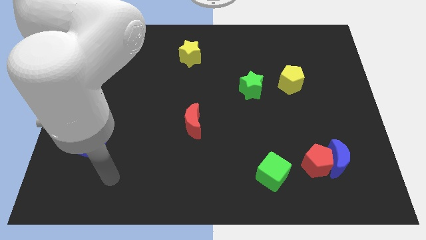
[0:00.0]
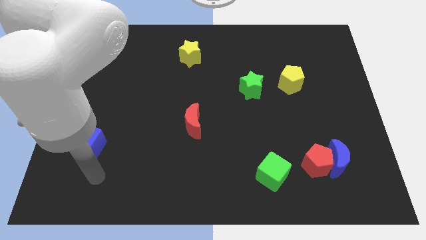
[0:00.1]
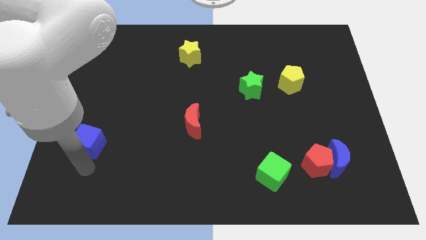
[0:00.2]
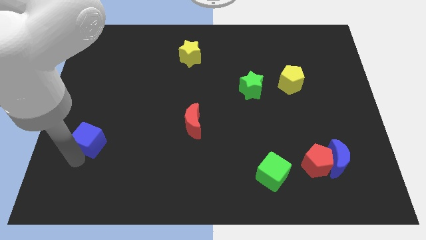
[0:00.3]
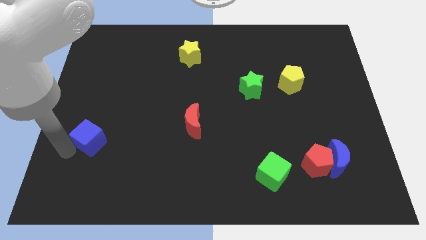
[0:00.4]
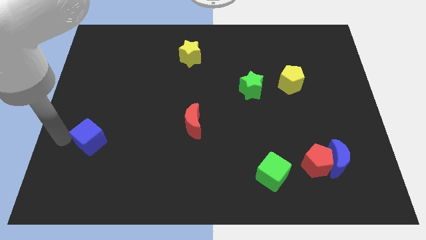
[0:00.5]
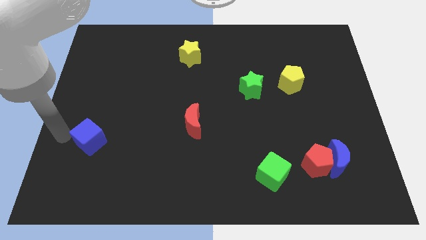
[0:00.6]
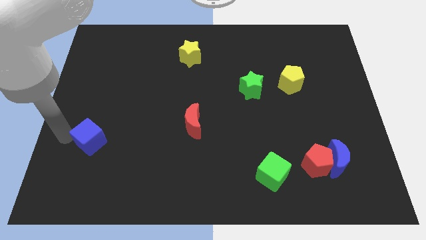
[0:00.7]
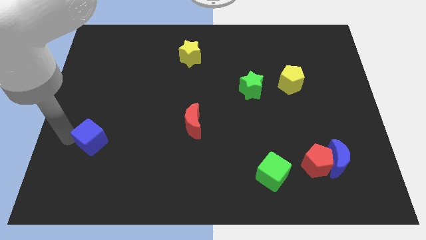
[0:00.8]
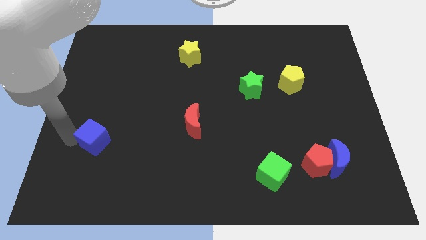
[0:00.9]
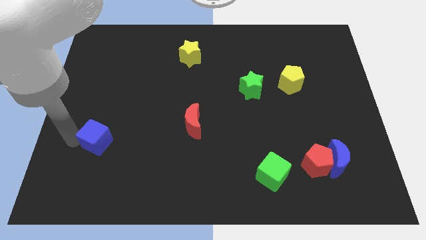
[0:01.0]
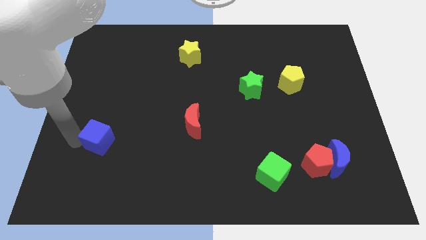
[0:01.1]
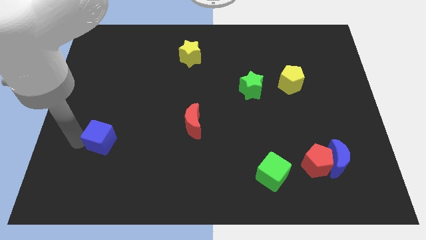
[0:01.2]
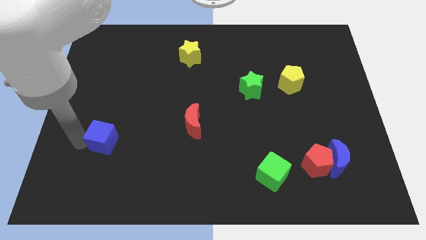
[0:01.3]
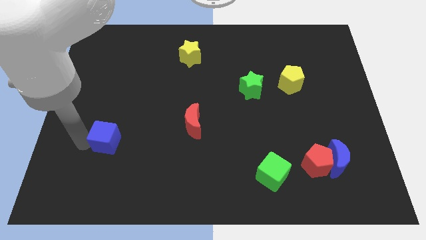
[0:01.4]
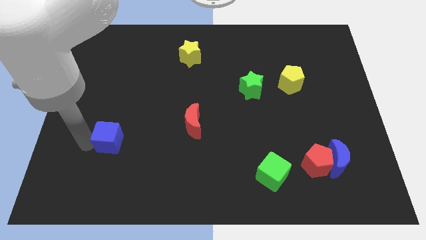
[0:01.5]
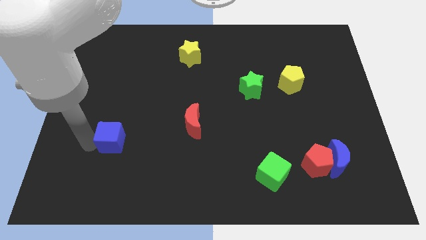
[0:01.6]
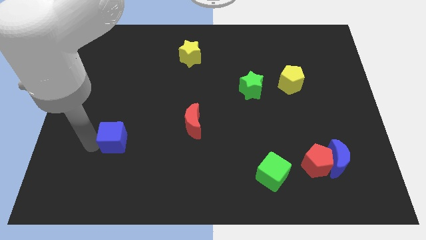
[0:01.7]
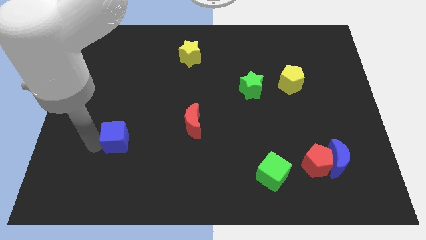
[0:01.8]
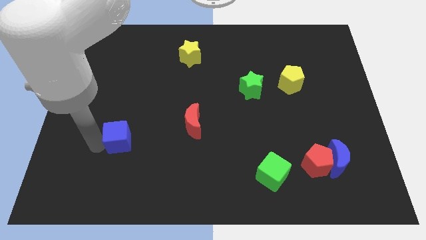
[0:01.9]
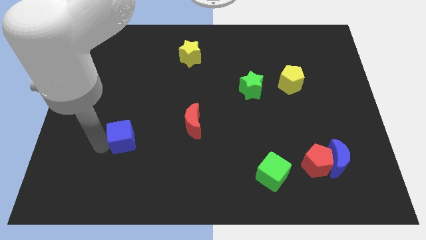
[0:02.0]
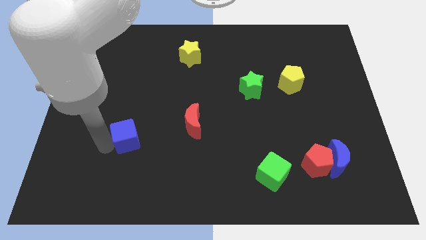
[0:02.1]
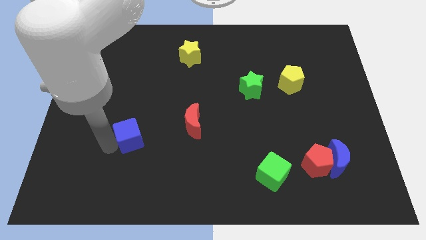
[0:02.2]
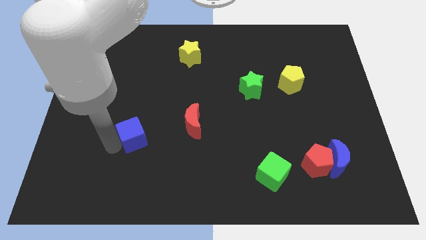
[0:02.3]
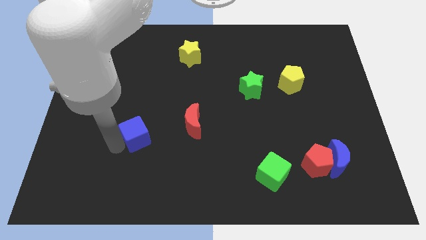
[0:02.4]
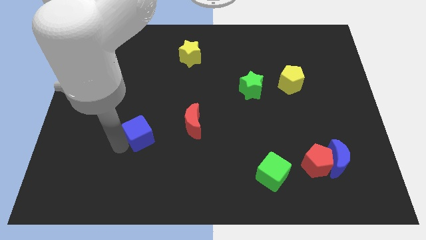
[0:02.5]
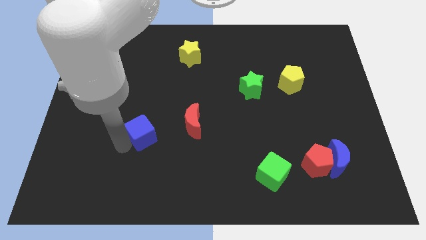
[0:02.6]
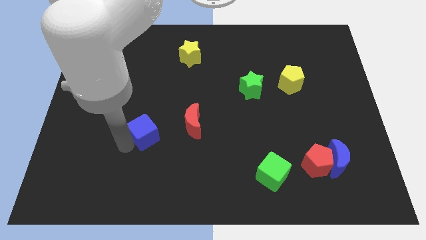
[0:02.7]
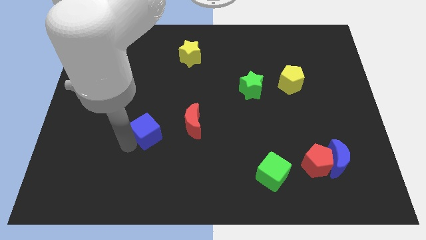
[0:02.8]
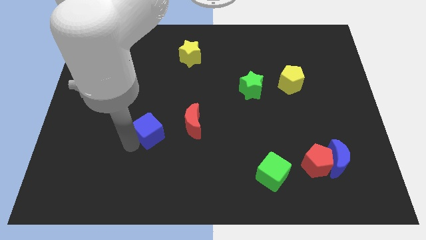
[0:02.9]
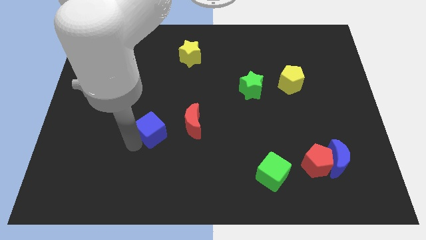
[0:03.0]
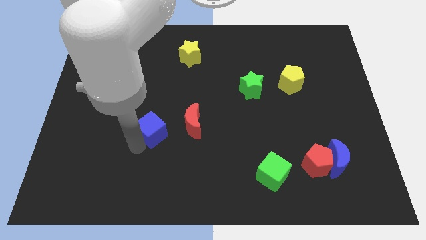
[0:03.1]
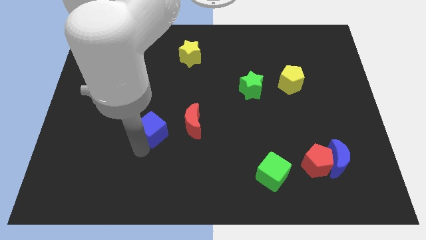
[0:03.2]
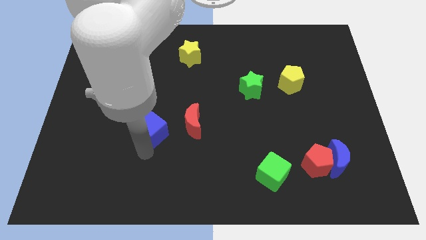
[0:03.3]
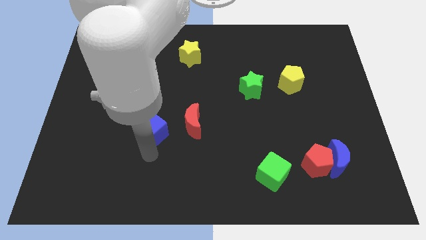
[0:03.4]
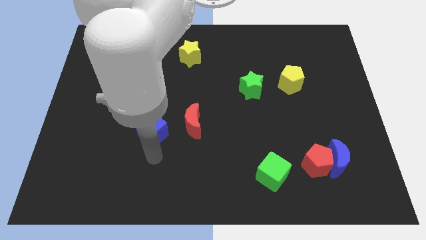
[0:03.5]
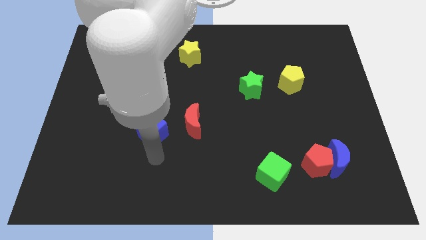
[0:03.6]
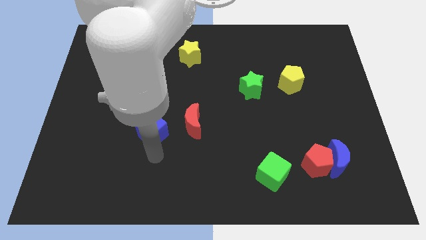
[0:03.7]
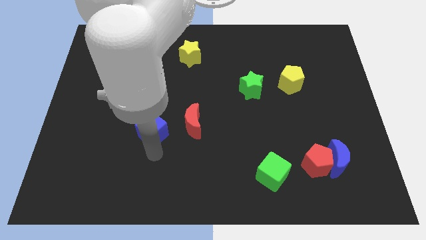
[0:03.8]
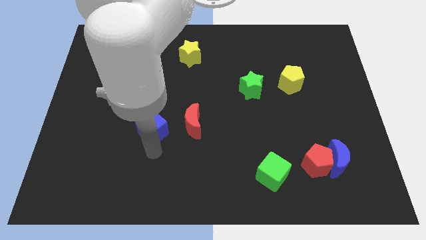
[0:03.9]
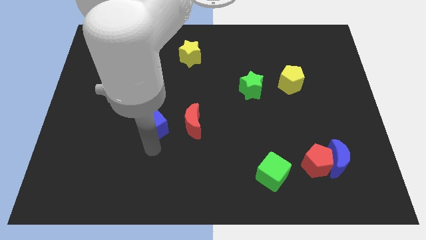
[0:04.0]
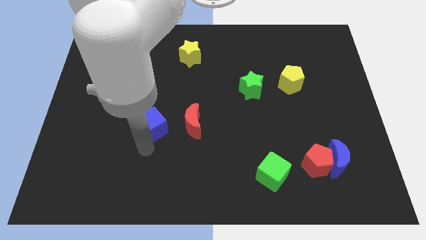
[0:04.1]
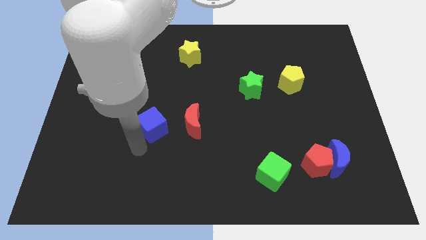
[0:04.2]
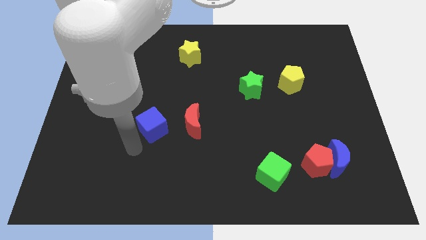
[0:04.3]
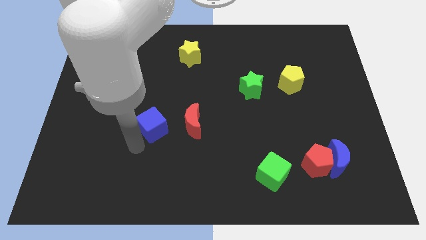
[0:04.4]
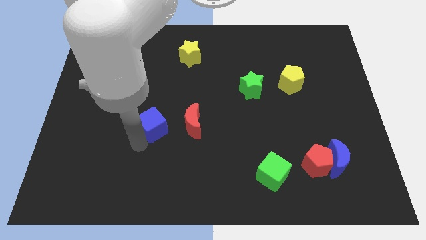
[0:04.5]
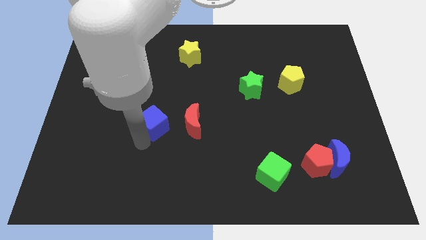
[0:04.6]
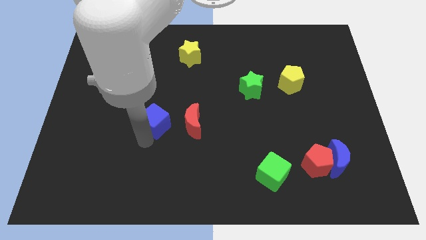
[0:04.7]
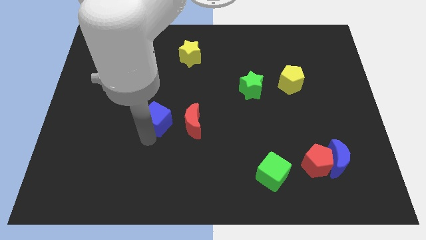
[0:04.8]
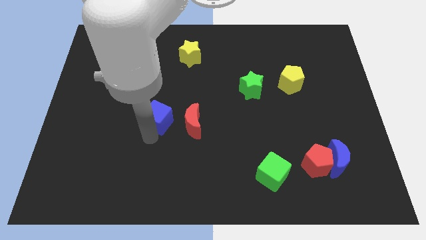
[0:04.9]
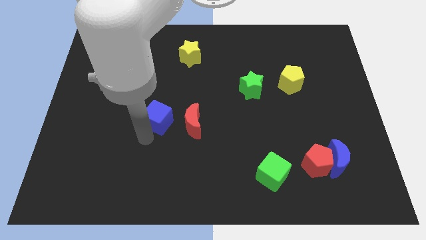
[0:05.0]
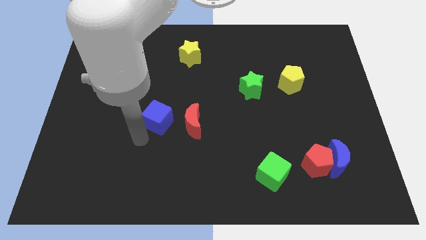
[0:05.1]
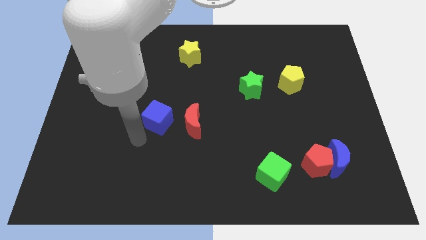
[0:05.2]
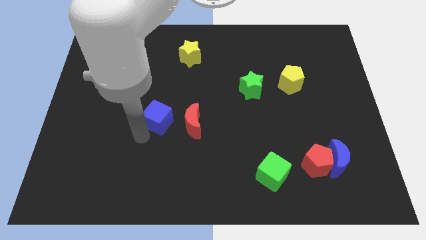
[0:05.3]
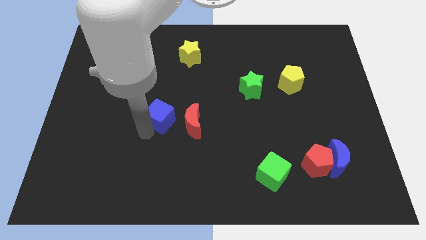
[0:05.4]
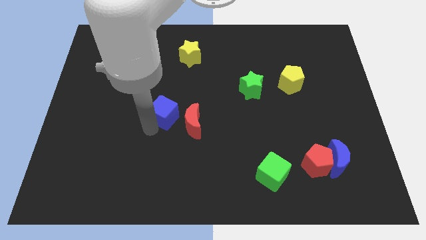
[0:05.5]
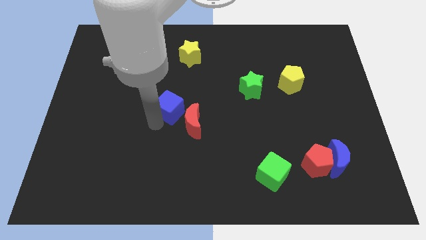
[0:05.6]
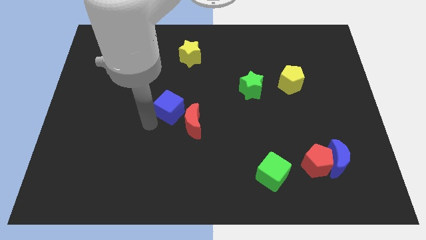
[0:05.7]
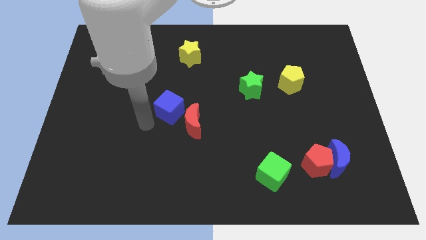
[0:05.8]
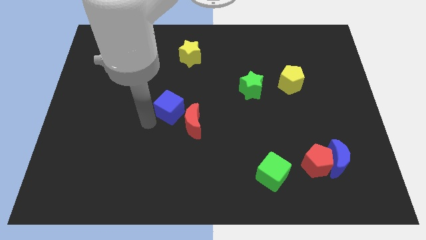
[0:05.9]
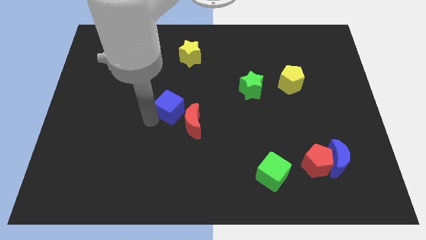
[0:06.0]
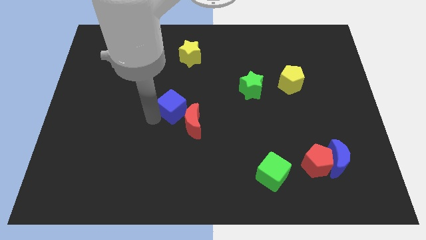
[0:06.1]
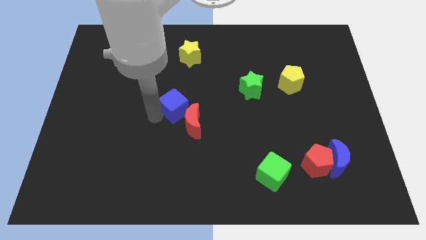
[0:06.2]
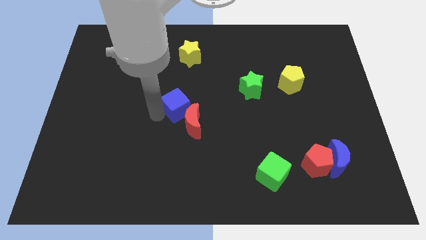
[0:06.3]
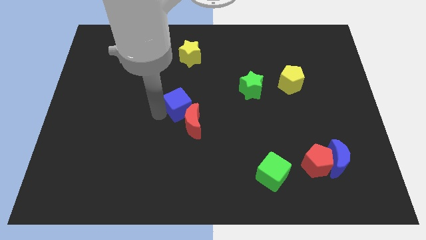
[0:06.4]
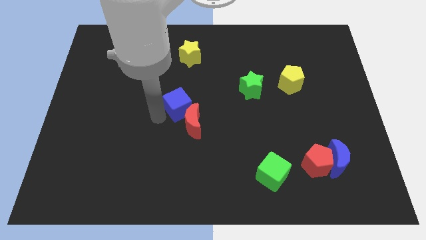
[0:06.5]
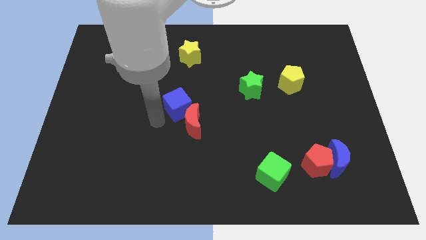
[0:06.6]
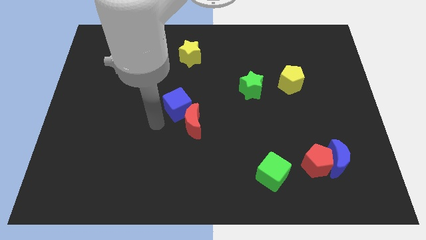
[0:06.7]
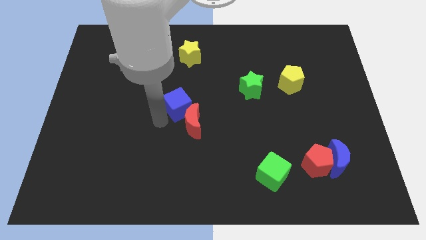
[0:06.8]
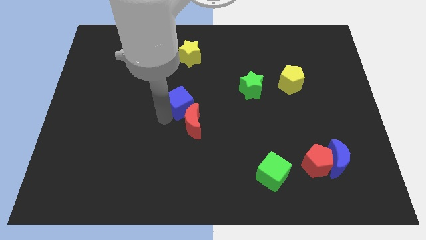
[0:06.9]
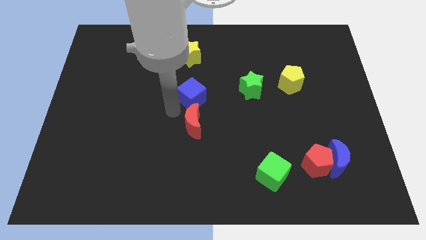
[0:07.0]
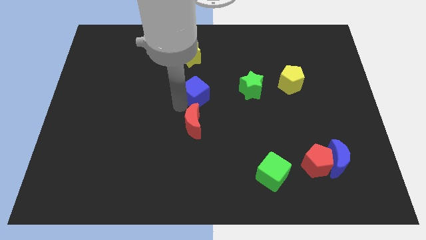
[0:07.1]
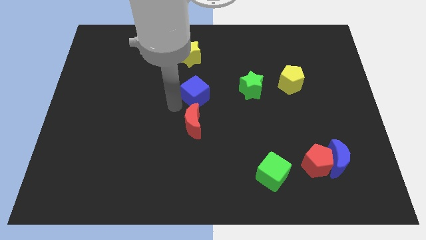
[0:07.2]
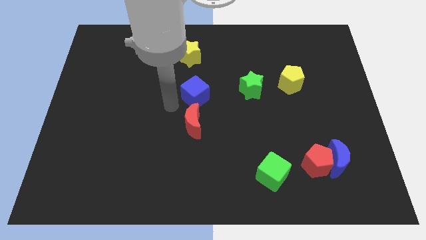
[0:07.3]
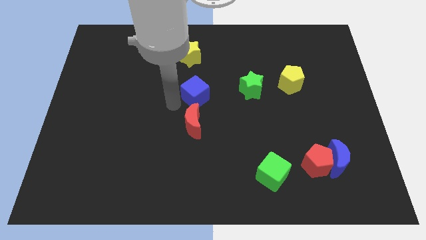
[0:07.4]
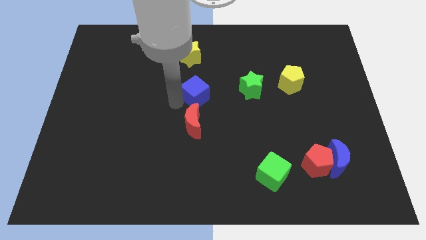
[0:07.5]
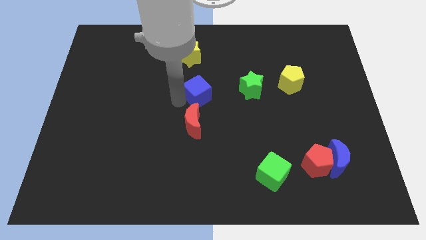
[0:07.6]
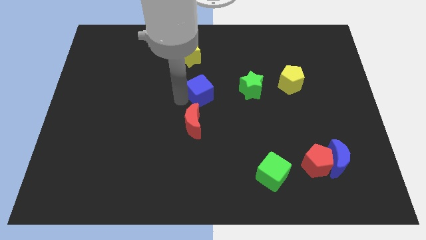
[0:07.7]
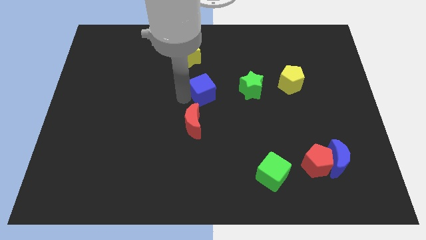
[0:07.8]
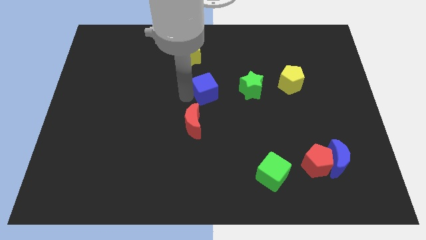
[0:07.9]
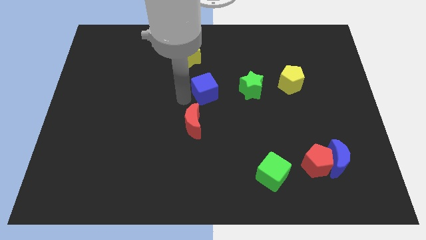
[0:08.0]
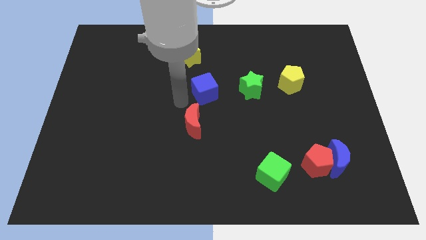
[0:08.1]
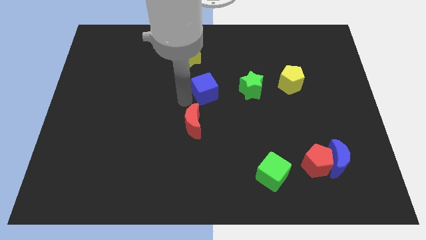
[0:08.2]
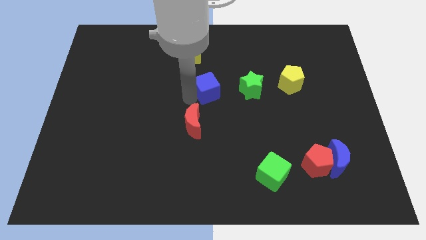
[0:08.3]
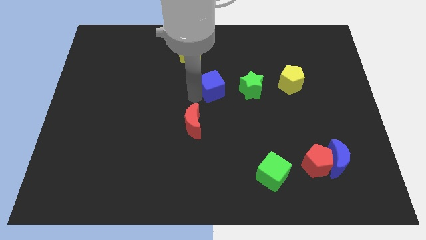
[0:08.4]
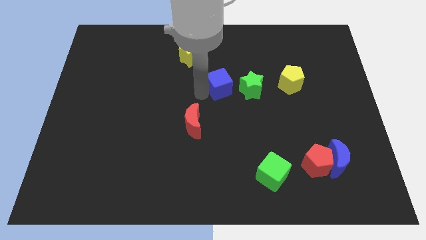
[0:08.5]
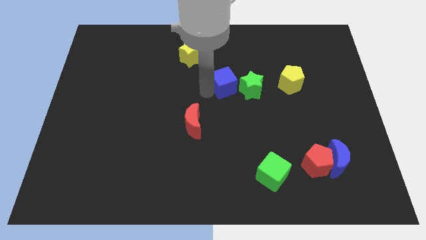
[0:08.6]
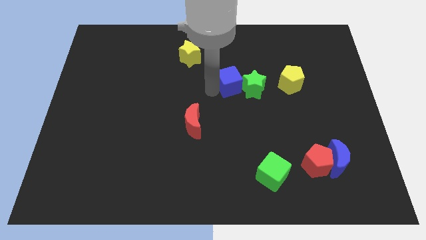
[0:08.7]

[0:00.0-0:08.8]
put the blue cube to the left of the yellow pentagon
